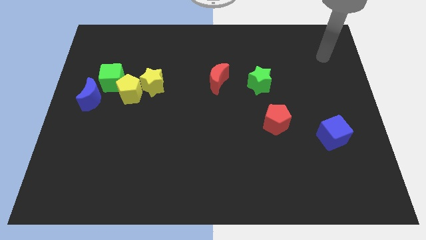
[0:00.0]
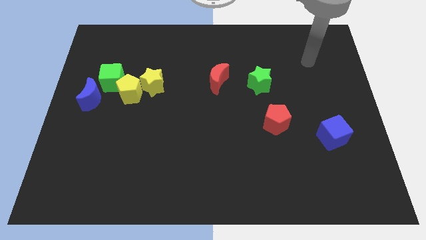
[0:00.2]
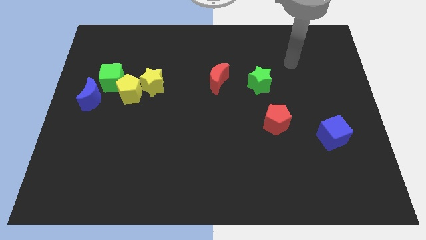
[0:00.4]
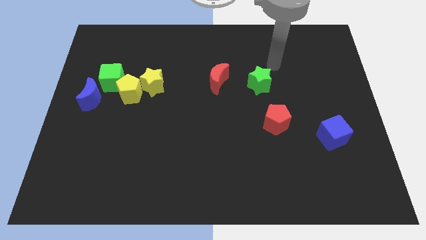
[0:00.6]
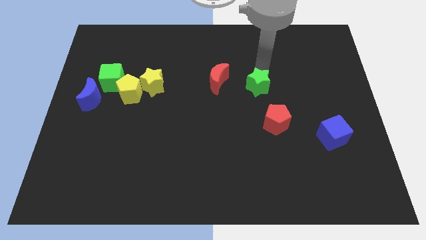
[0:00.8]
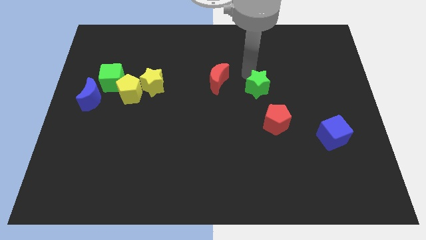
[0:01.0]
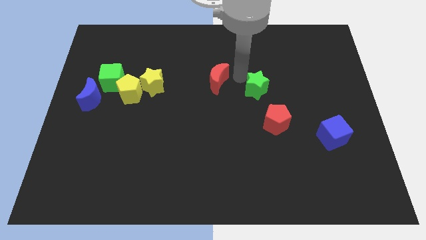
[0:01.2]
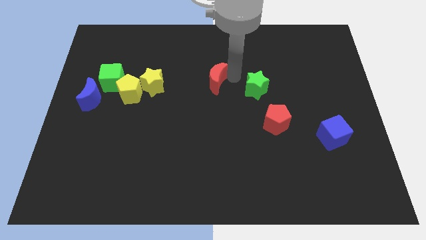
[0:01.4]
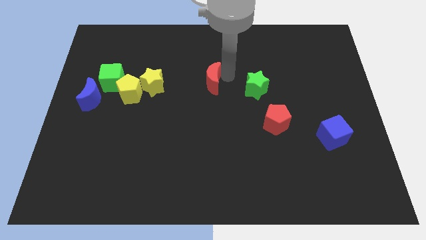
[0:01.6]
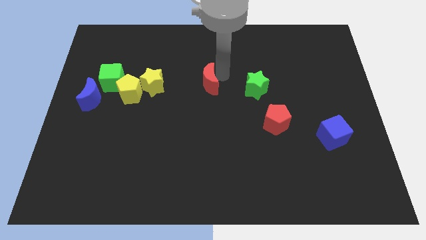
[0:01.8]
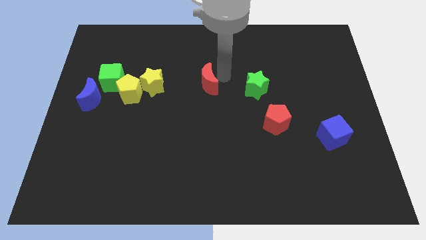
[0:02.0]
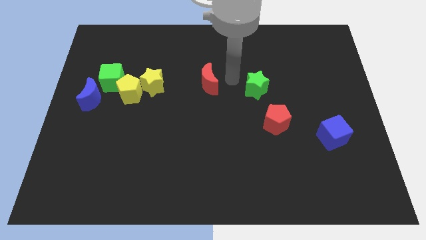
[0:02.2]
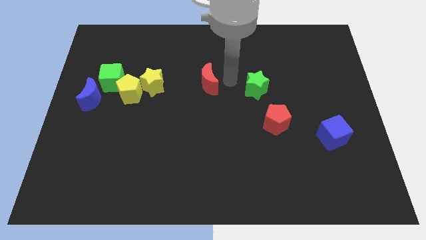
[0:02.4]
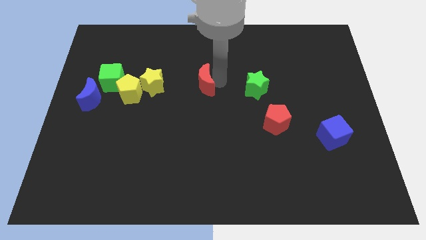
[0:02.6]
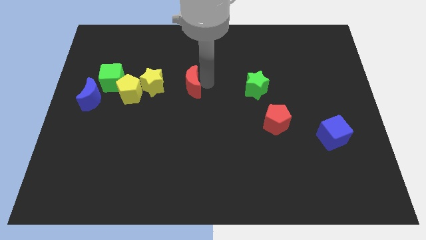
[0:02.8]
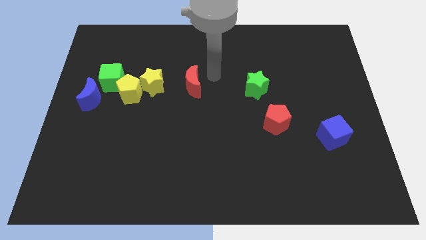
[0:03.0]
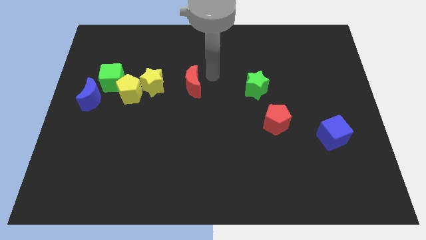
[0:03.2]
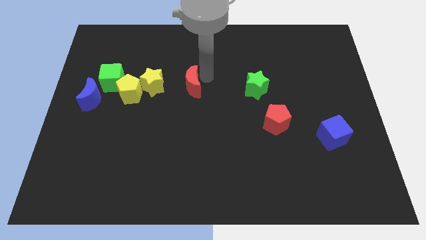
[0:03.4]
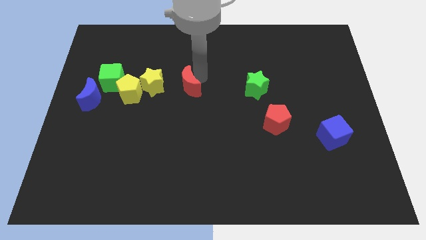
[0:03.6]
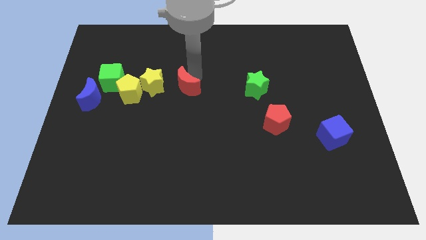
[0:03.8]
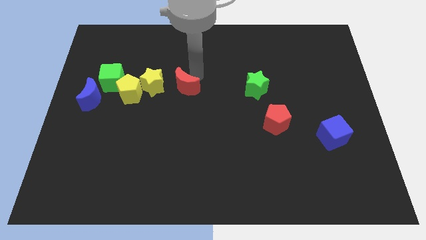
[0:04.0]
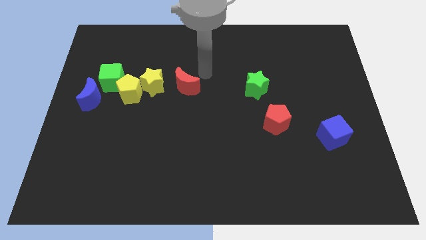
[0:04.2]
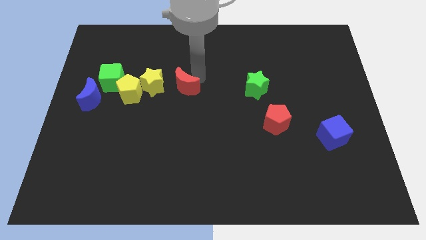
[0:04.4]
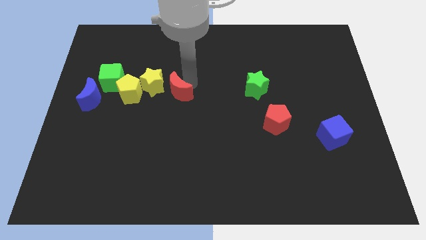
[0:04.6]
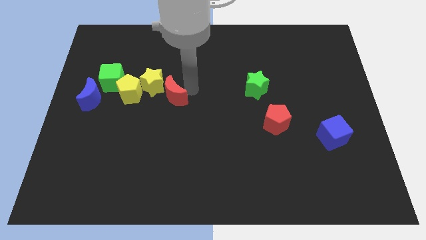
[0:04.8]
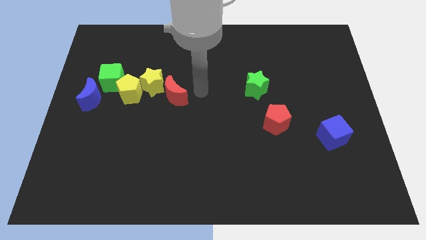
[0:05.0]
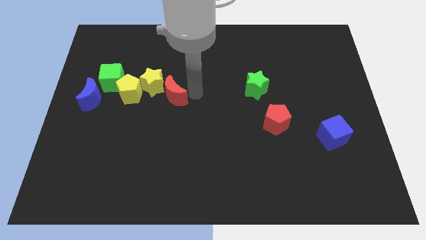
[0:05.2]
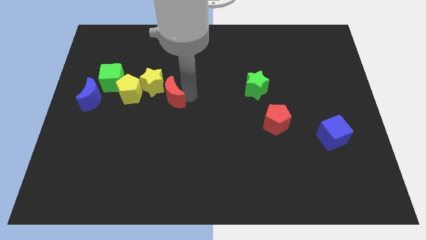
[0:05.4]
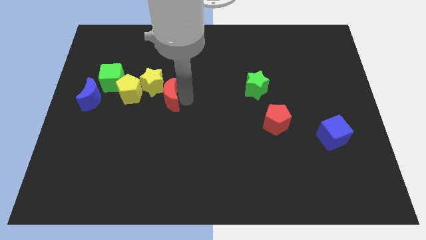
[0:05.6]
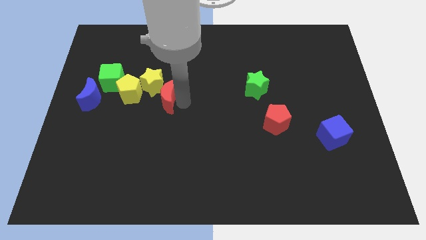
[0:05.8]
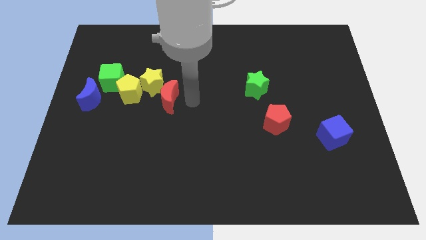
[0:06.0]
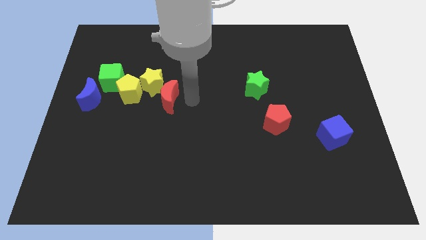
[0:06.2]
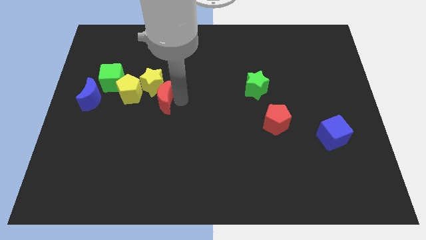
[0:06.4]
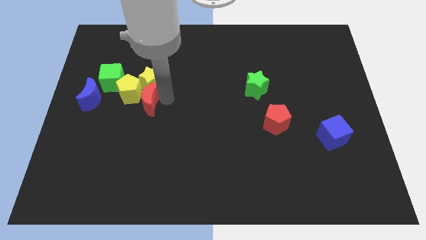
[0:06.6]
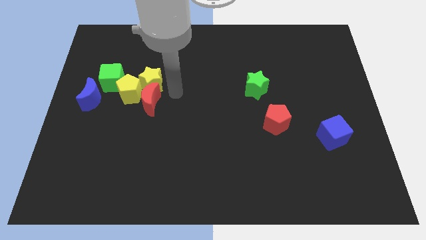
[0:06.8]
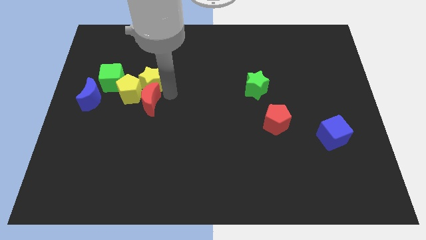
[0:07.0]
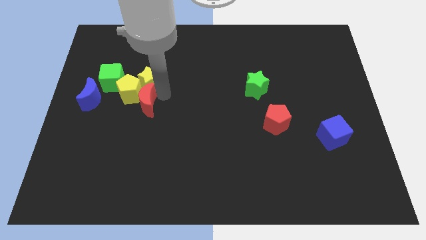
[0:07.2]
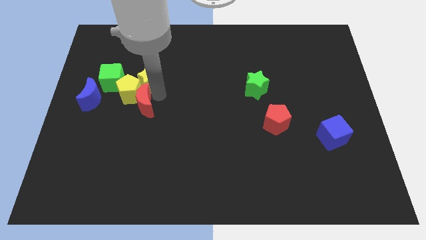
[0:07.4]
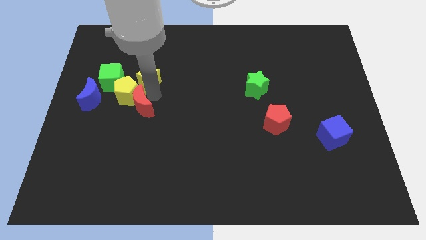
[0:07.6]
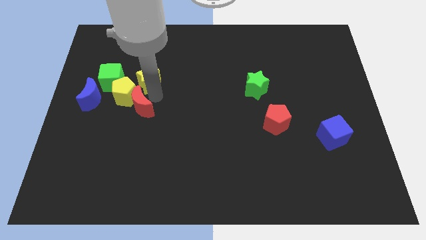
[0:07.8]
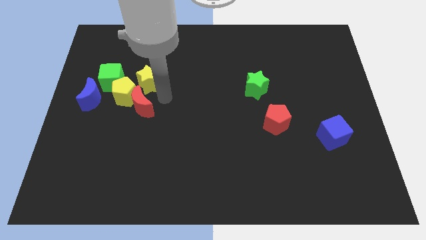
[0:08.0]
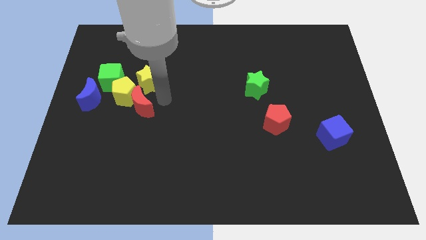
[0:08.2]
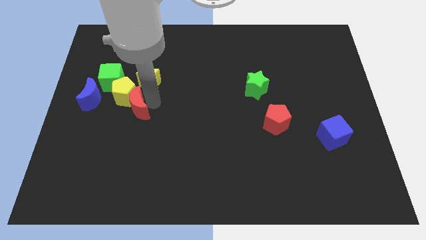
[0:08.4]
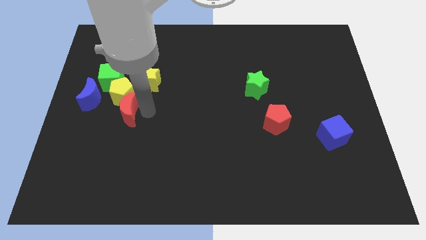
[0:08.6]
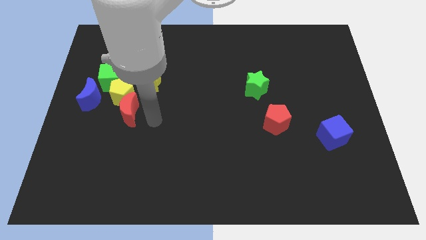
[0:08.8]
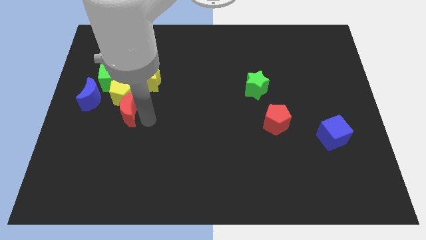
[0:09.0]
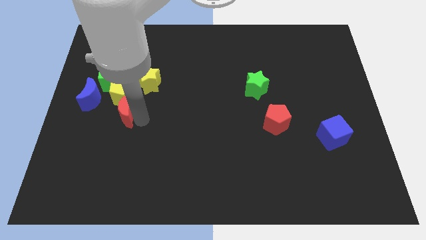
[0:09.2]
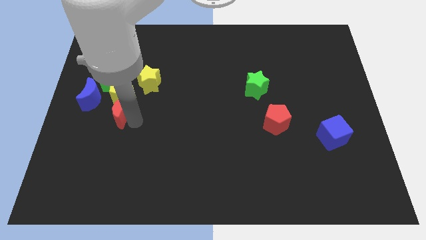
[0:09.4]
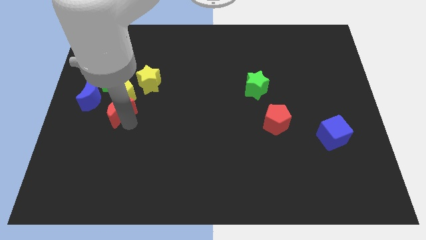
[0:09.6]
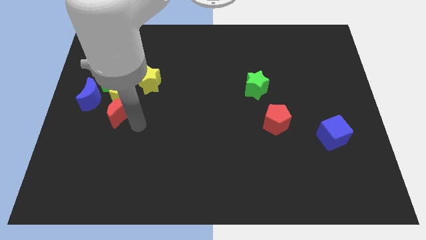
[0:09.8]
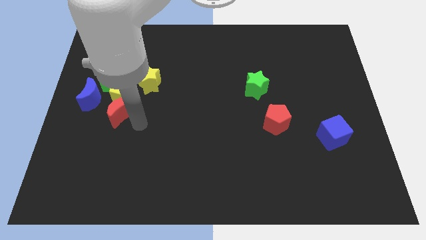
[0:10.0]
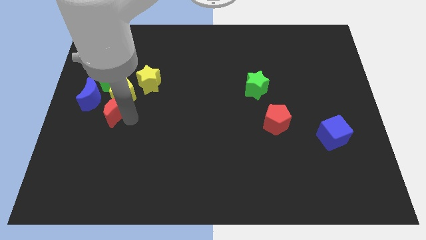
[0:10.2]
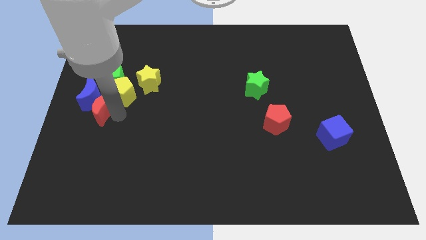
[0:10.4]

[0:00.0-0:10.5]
put the red moon to the blue moon

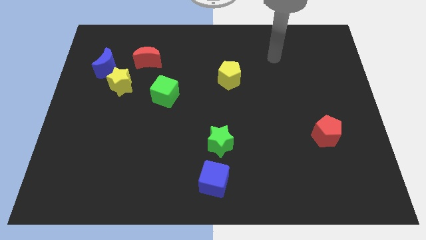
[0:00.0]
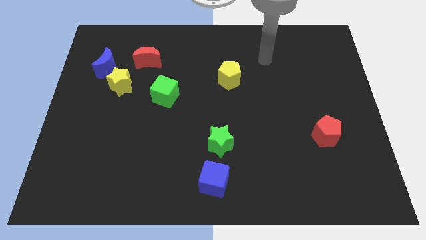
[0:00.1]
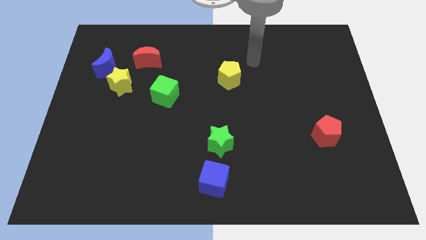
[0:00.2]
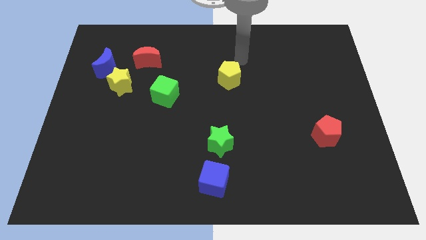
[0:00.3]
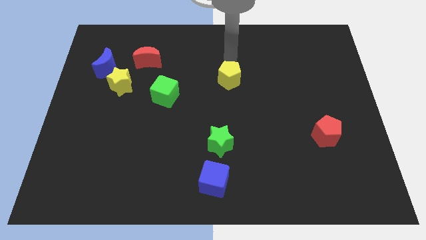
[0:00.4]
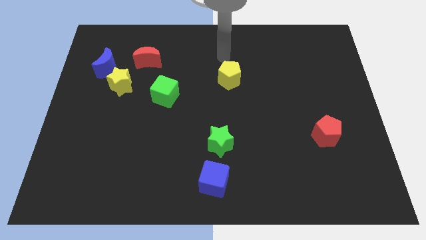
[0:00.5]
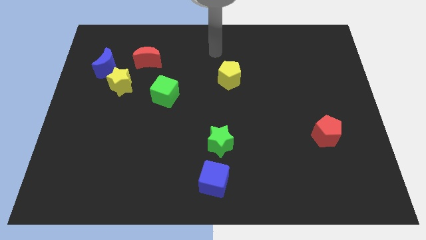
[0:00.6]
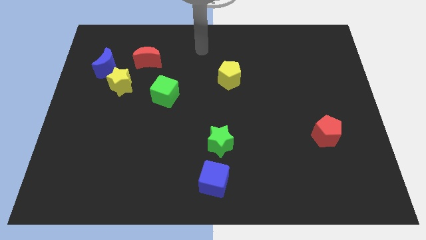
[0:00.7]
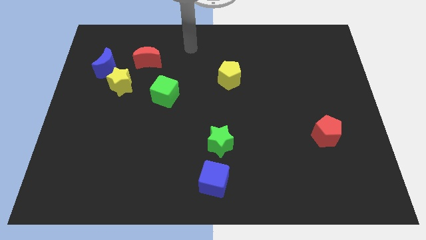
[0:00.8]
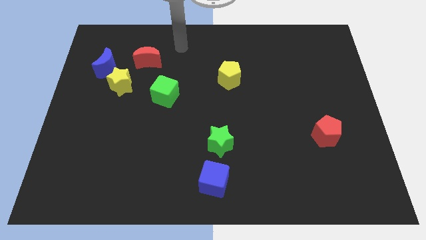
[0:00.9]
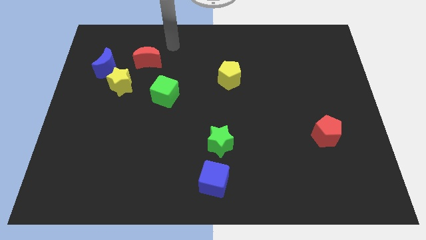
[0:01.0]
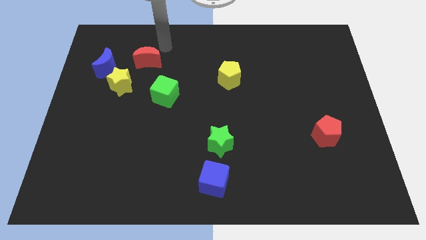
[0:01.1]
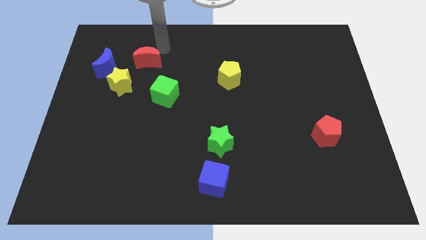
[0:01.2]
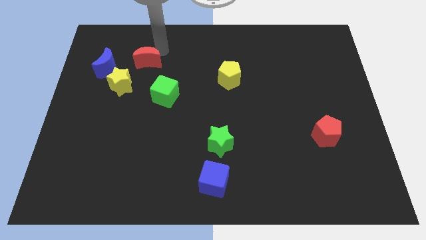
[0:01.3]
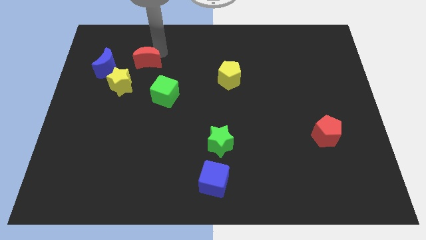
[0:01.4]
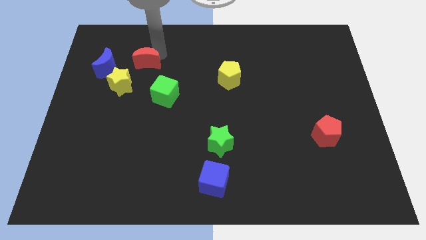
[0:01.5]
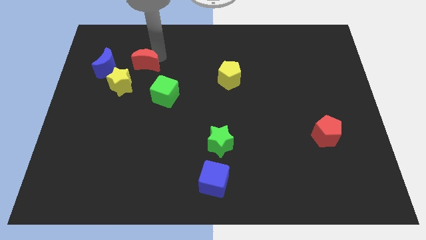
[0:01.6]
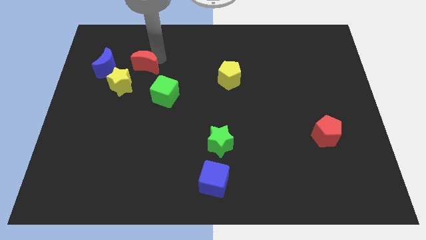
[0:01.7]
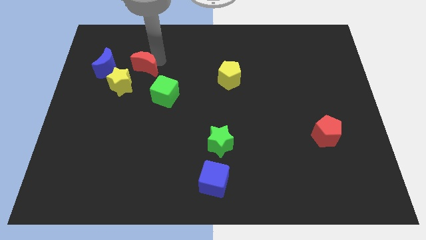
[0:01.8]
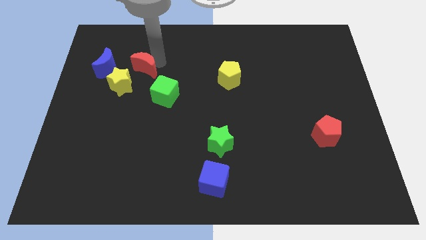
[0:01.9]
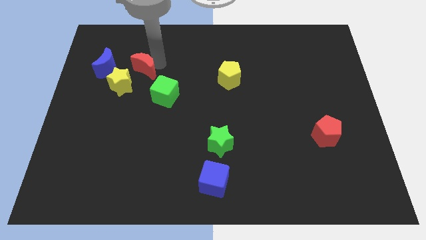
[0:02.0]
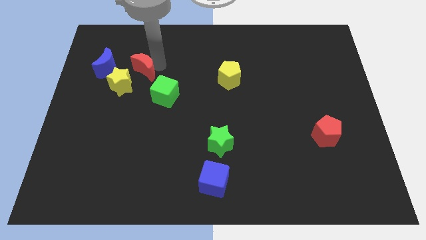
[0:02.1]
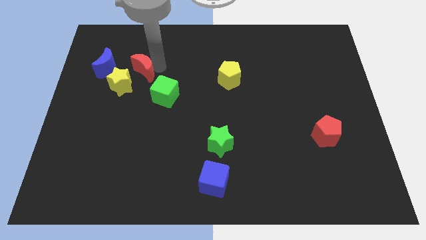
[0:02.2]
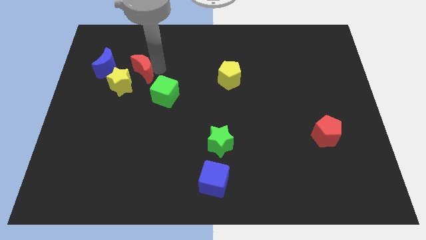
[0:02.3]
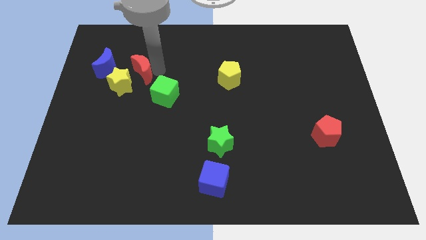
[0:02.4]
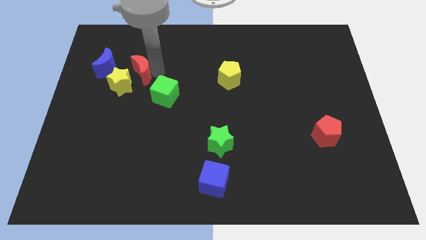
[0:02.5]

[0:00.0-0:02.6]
push the red moon to the yellow star
